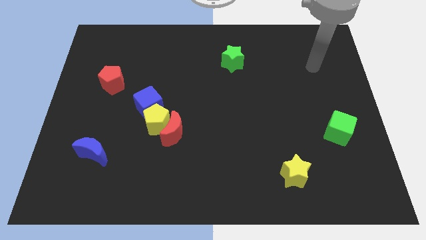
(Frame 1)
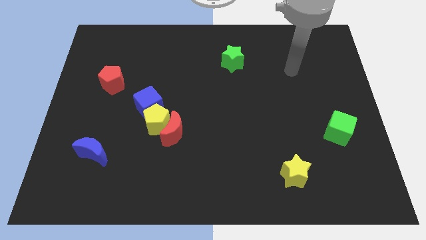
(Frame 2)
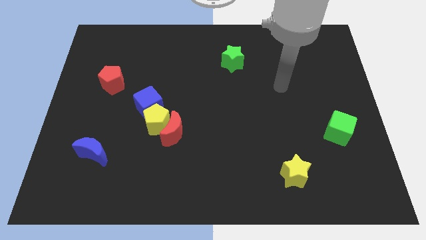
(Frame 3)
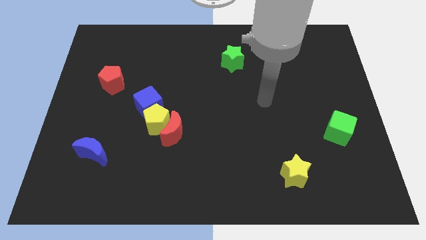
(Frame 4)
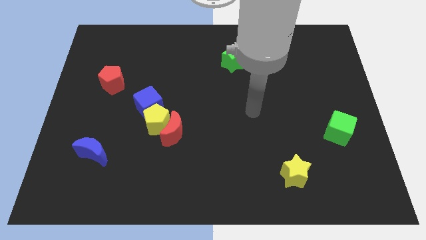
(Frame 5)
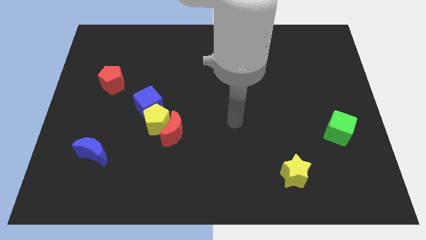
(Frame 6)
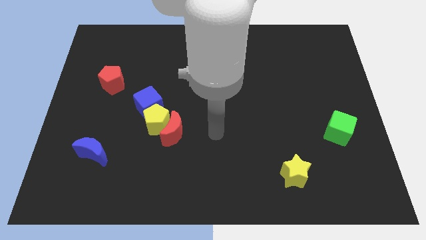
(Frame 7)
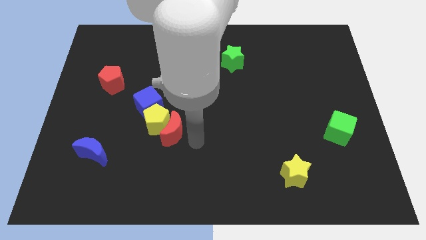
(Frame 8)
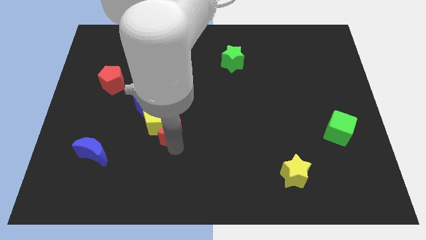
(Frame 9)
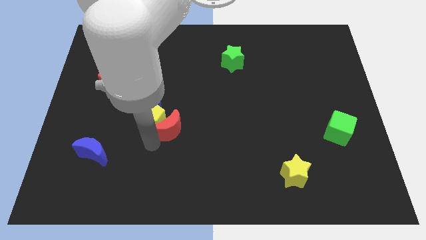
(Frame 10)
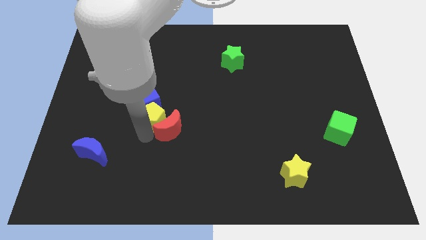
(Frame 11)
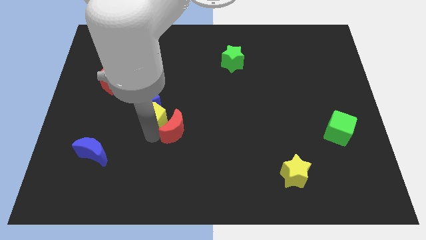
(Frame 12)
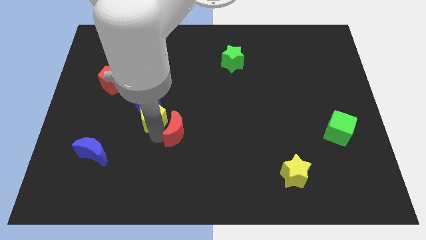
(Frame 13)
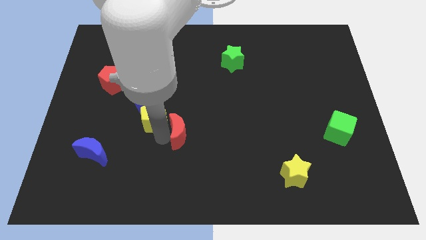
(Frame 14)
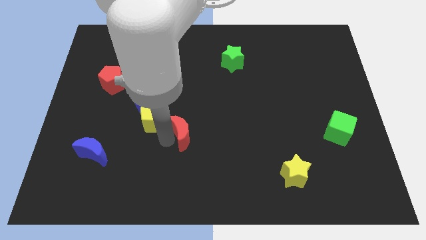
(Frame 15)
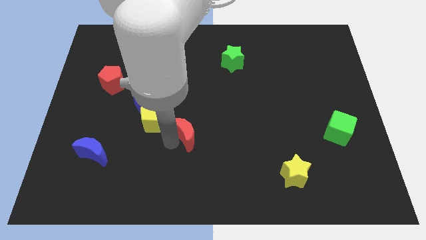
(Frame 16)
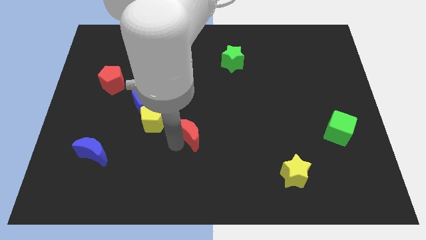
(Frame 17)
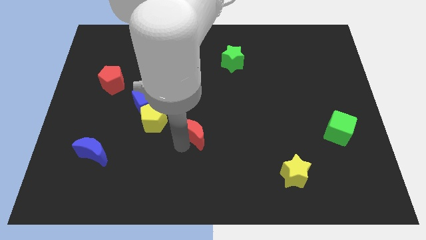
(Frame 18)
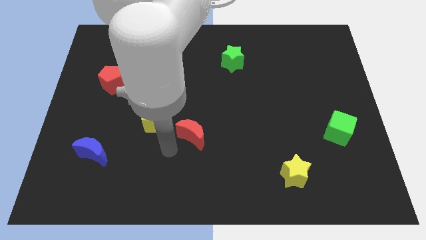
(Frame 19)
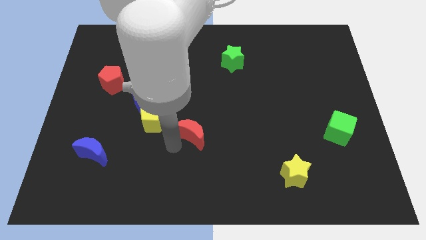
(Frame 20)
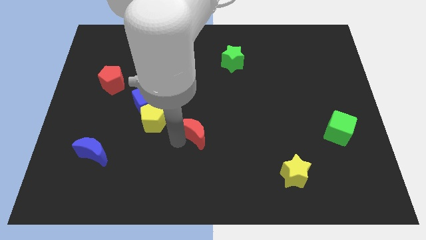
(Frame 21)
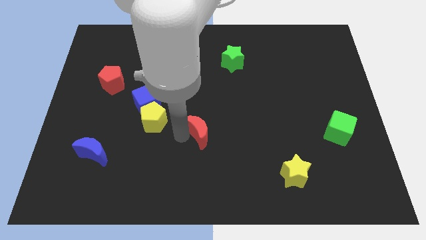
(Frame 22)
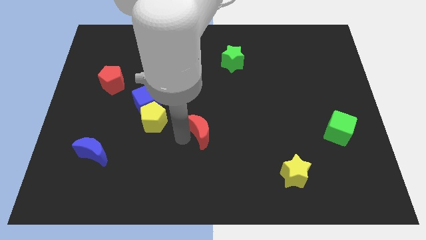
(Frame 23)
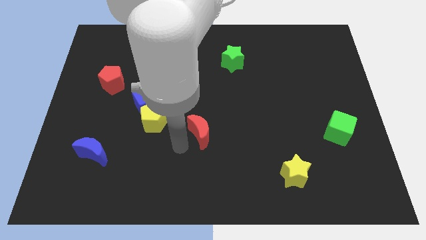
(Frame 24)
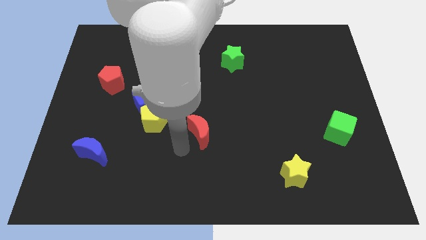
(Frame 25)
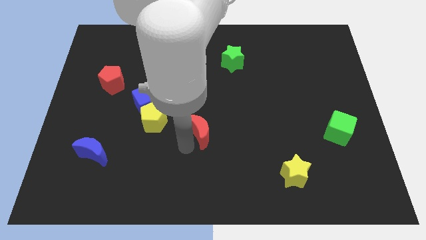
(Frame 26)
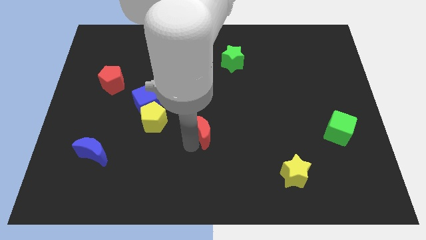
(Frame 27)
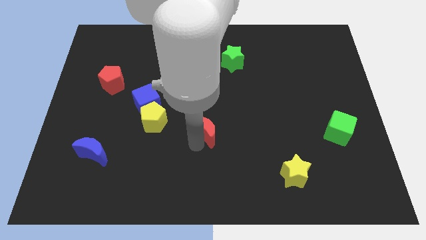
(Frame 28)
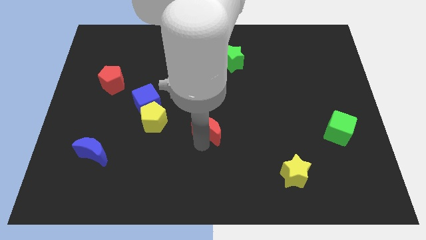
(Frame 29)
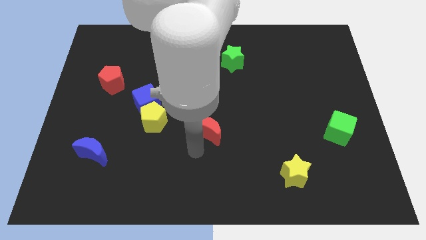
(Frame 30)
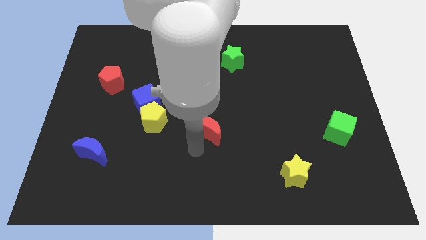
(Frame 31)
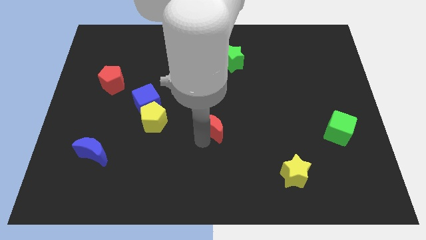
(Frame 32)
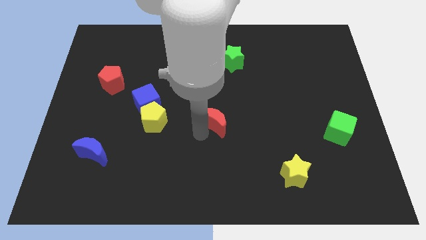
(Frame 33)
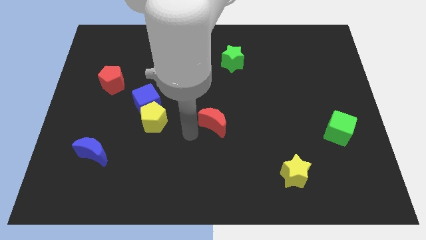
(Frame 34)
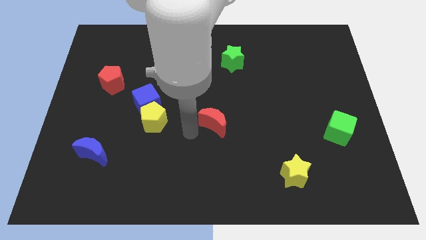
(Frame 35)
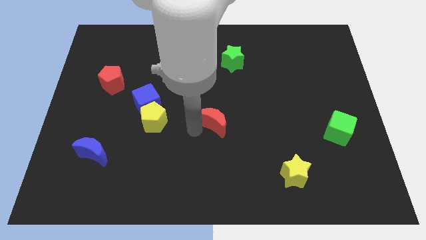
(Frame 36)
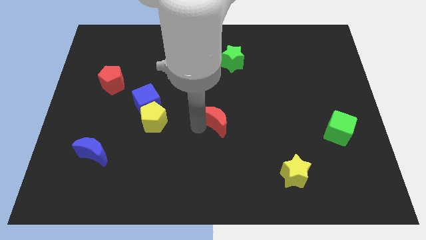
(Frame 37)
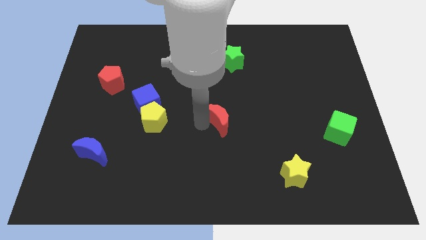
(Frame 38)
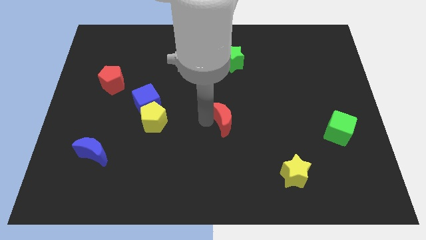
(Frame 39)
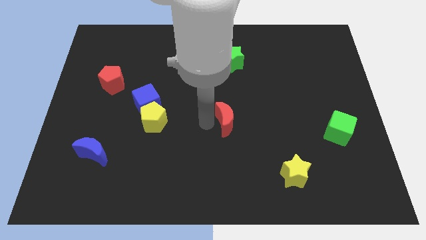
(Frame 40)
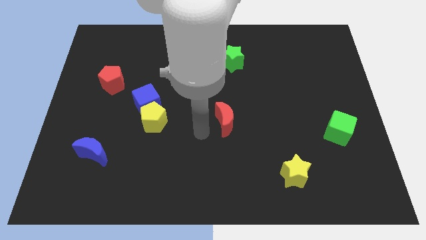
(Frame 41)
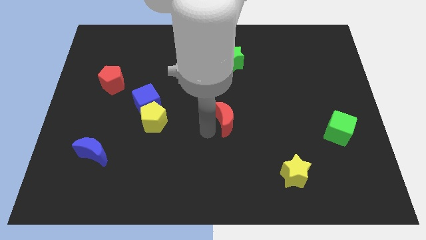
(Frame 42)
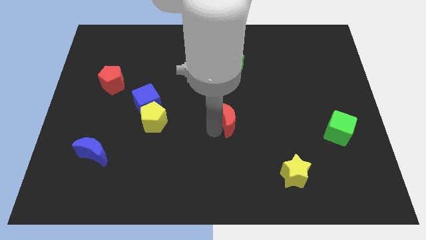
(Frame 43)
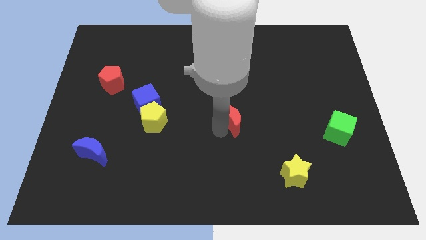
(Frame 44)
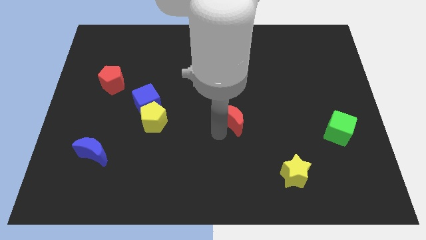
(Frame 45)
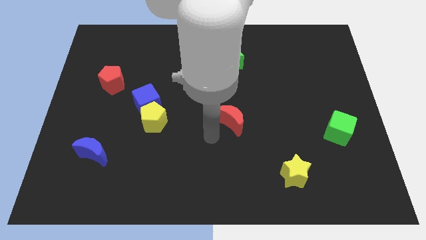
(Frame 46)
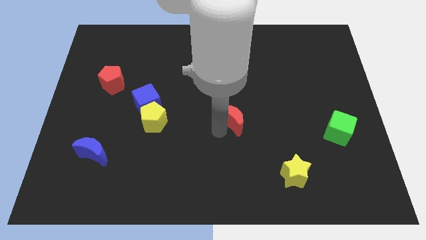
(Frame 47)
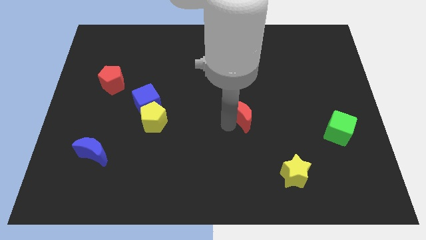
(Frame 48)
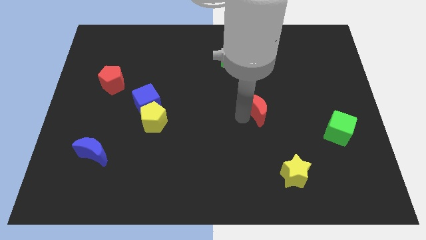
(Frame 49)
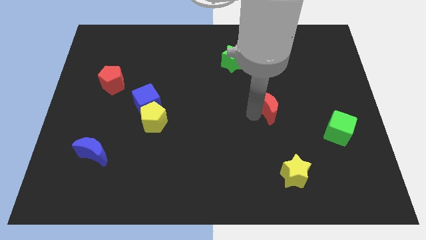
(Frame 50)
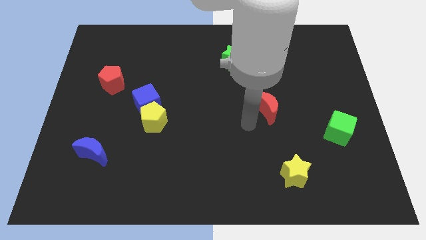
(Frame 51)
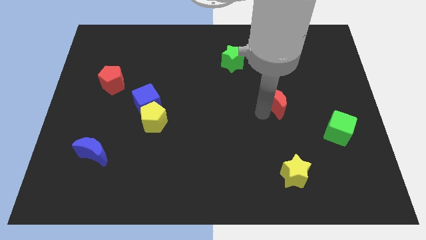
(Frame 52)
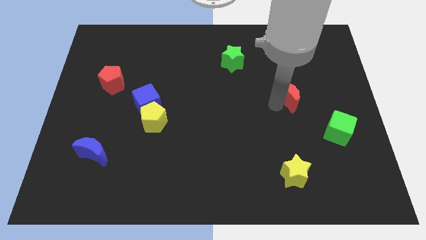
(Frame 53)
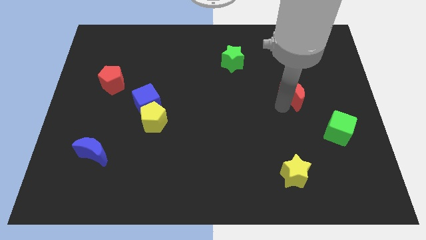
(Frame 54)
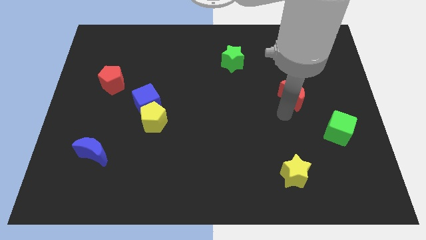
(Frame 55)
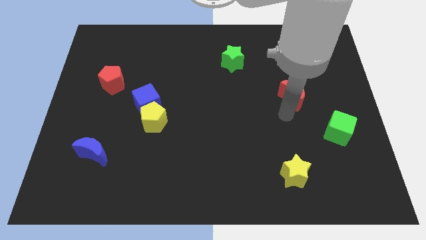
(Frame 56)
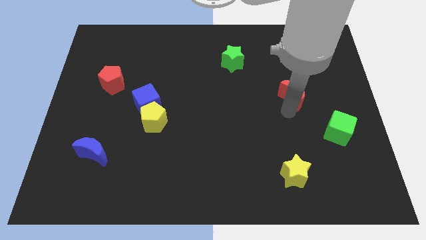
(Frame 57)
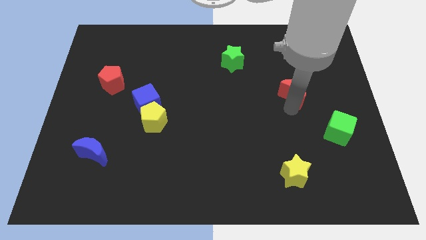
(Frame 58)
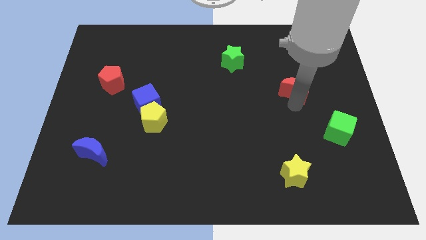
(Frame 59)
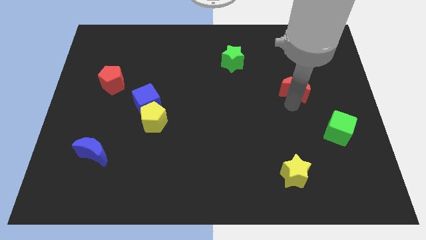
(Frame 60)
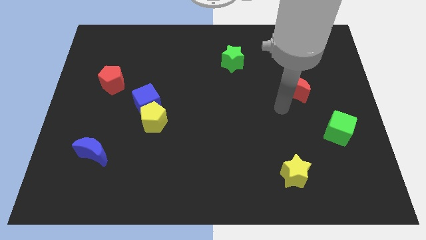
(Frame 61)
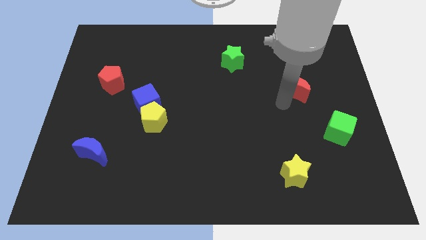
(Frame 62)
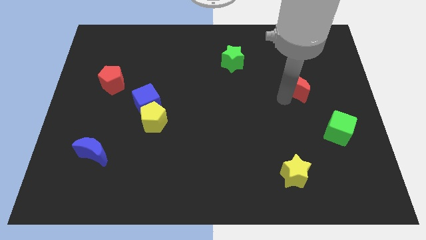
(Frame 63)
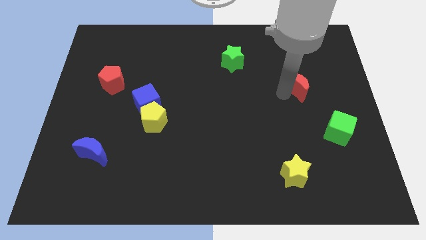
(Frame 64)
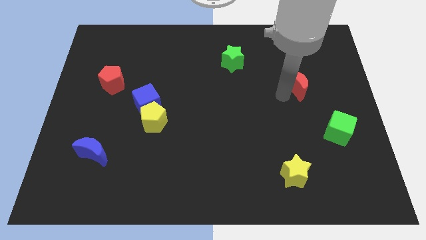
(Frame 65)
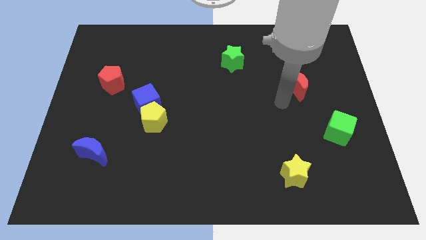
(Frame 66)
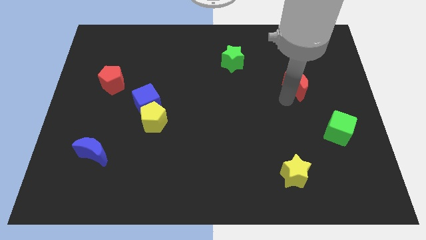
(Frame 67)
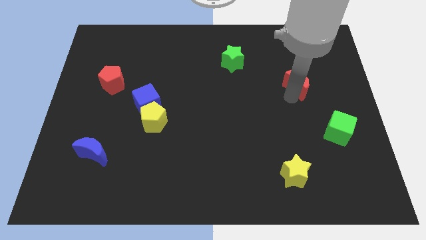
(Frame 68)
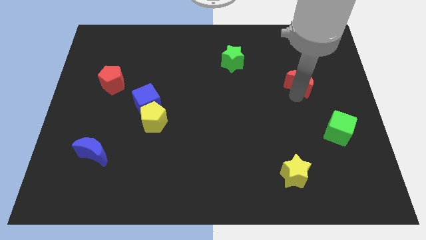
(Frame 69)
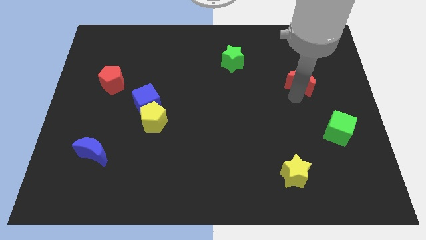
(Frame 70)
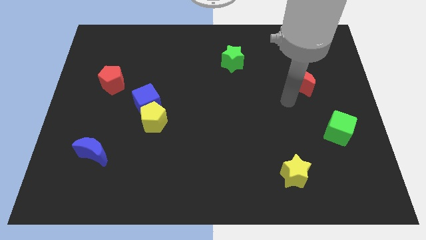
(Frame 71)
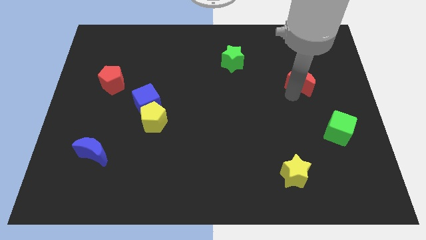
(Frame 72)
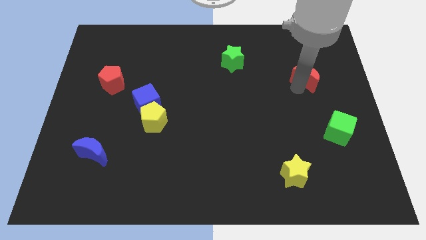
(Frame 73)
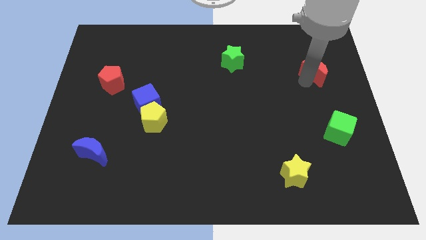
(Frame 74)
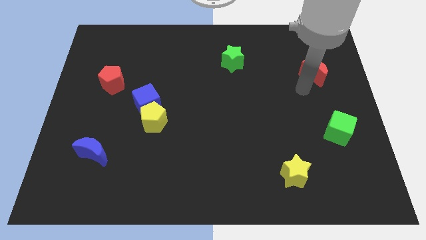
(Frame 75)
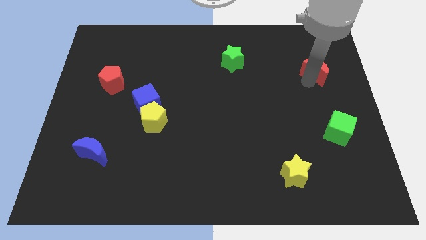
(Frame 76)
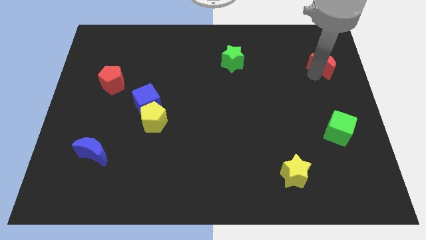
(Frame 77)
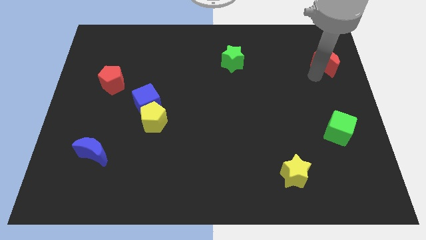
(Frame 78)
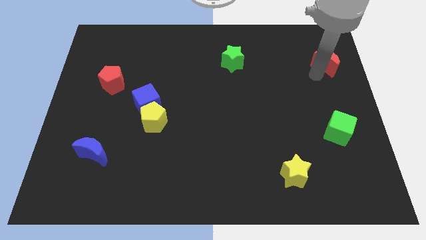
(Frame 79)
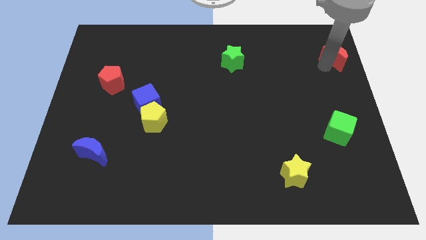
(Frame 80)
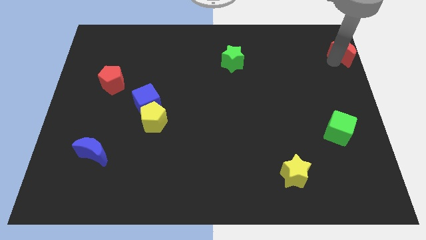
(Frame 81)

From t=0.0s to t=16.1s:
push the red moon to the top right corner
